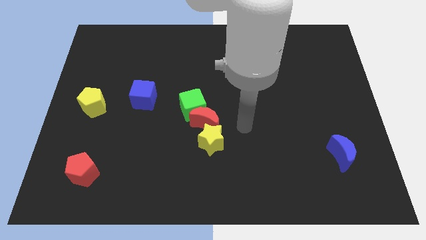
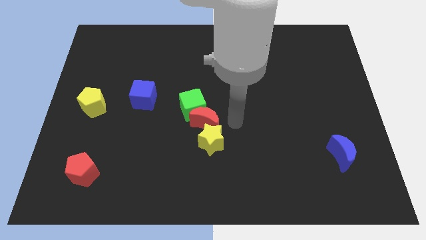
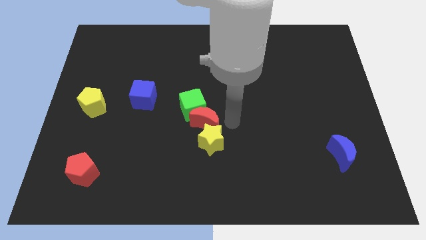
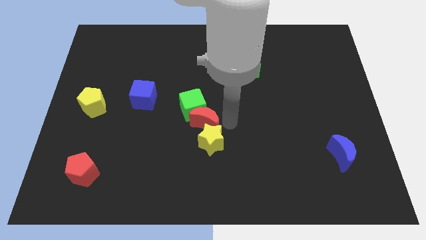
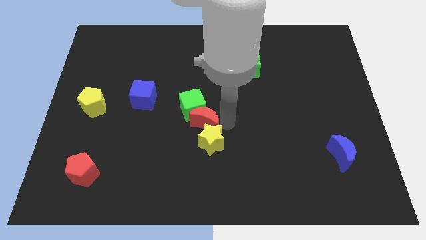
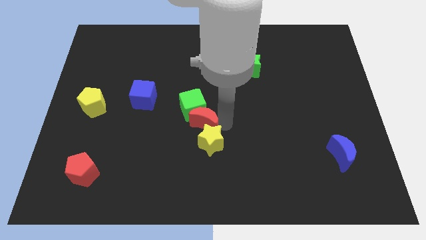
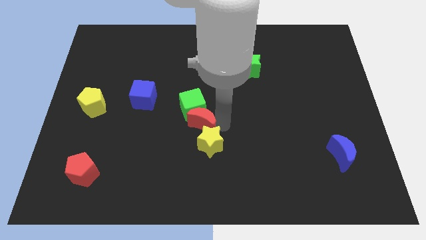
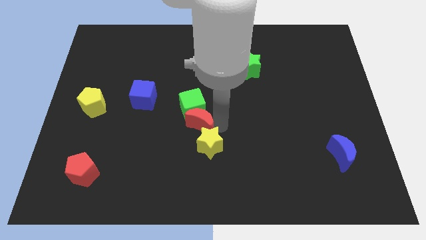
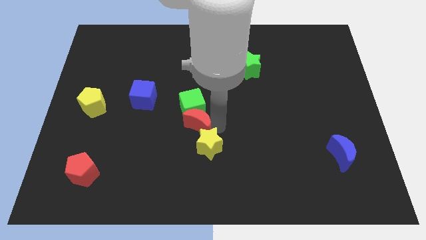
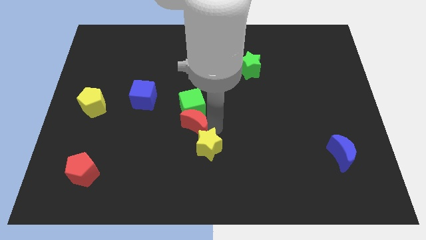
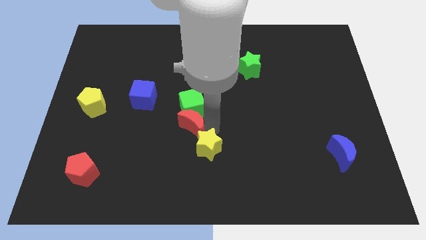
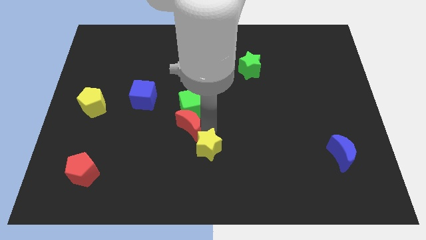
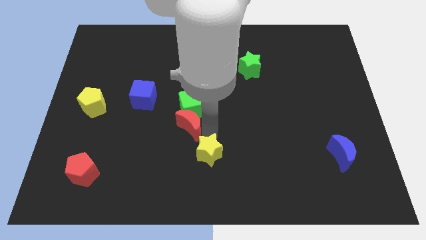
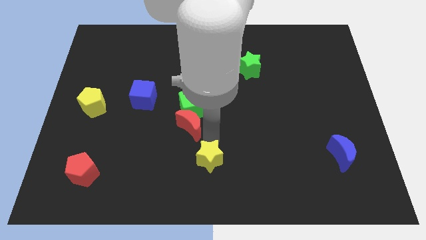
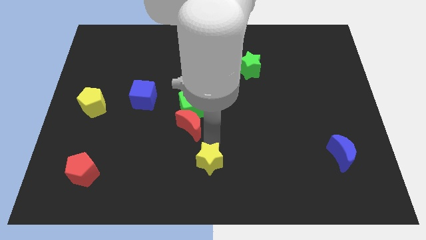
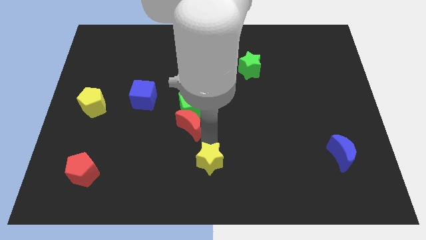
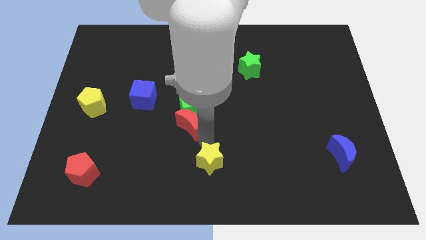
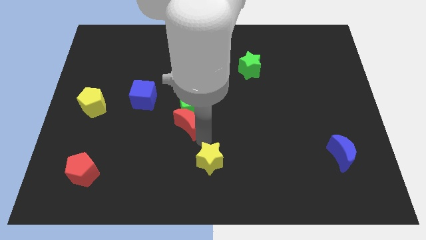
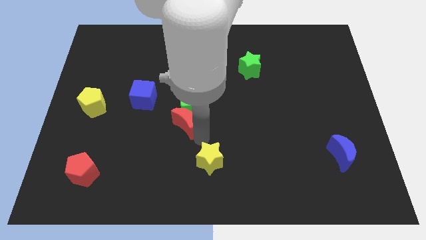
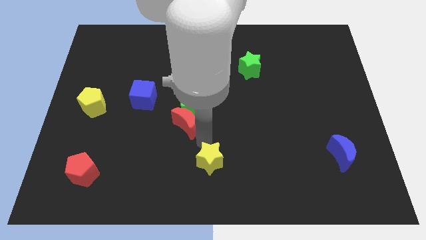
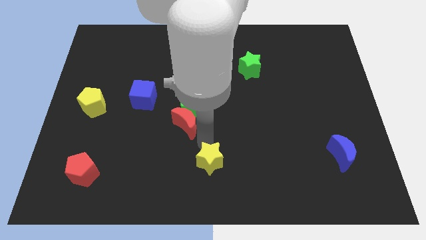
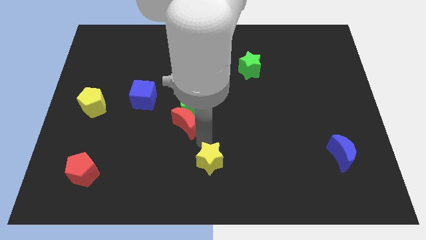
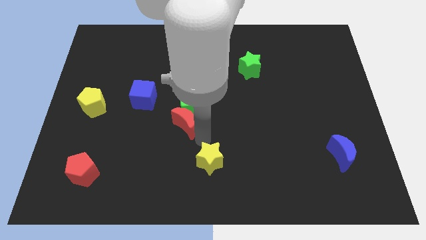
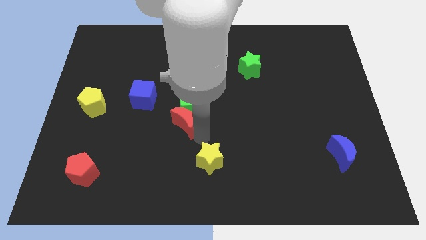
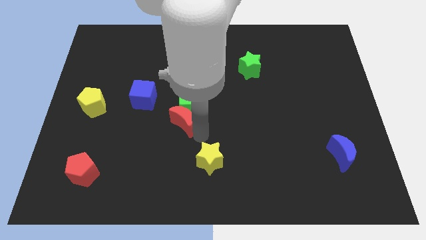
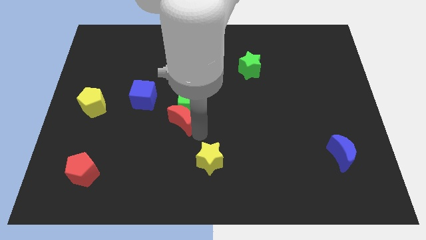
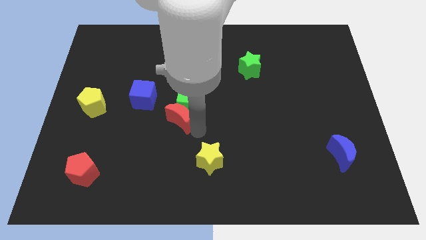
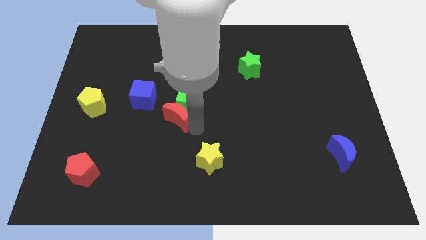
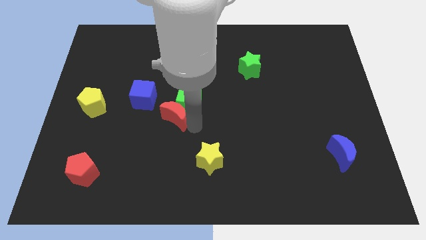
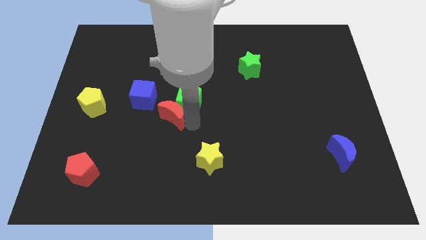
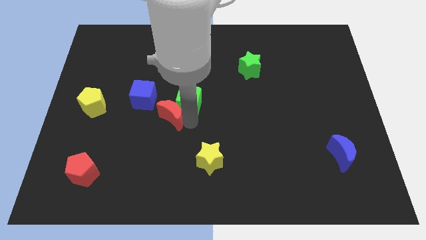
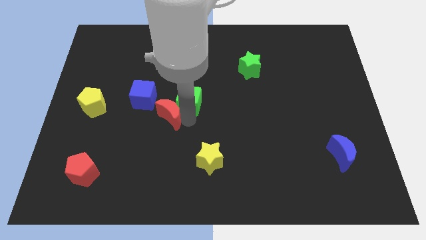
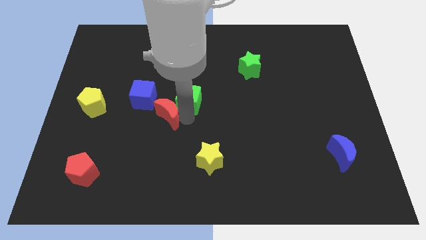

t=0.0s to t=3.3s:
slightly push the red moon diagonally up and left

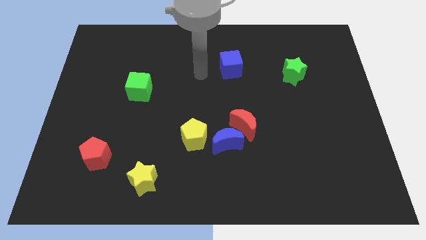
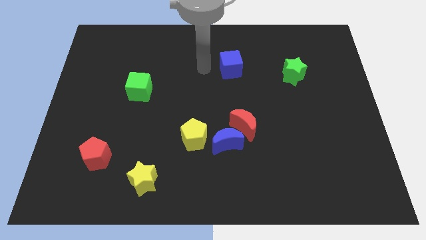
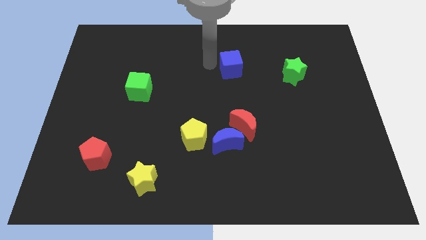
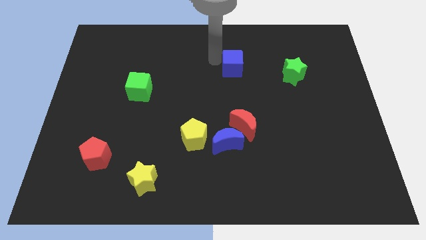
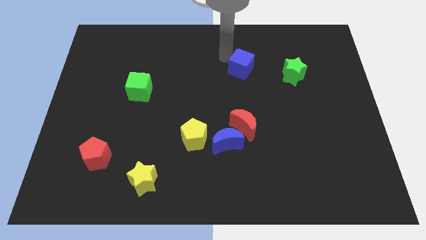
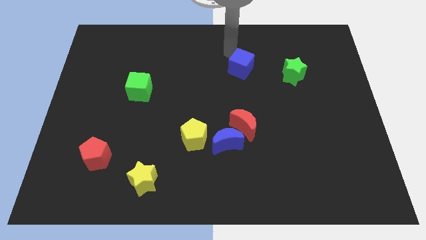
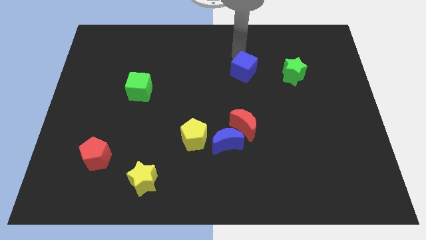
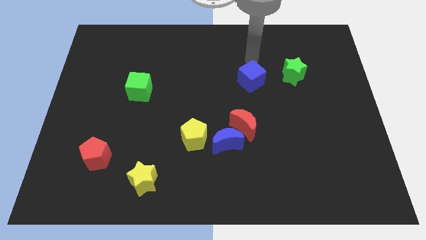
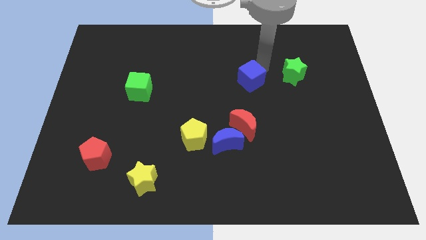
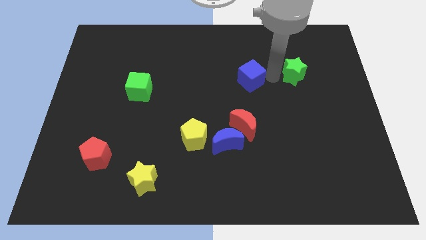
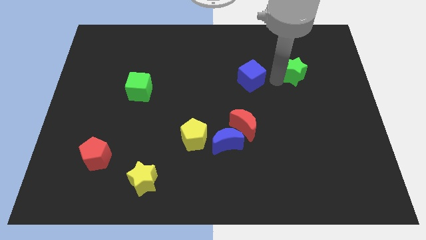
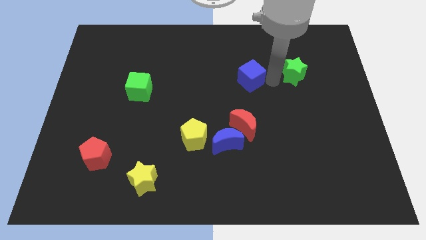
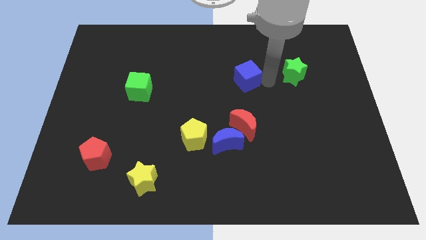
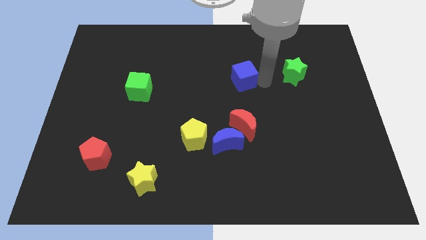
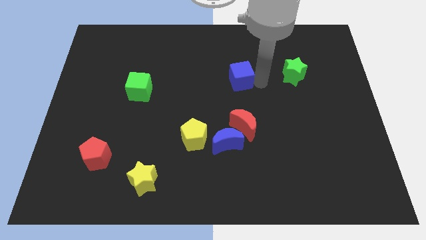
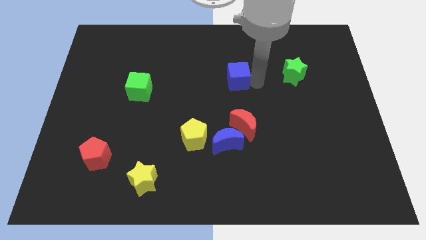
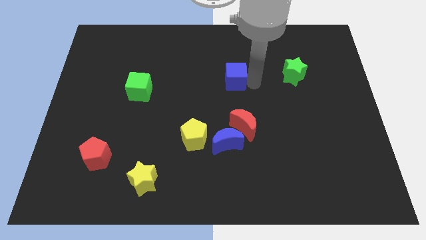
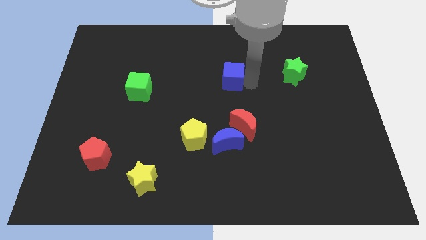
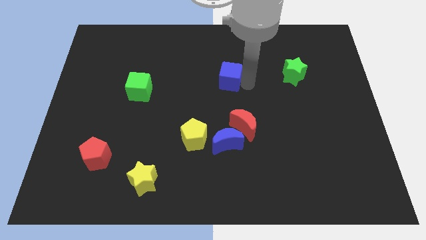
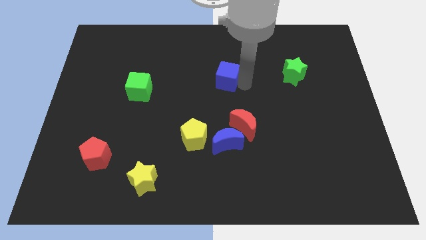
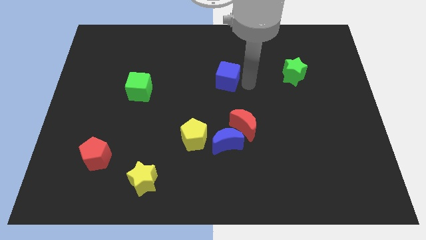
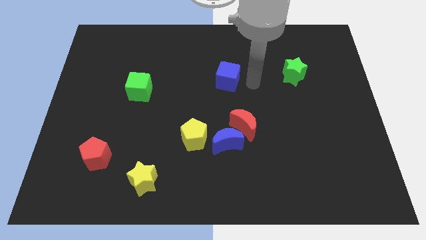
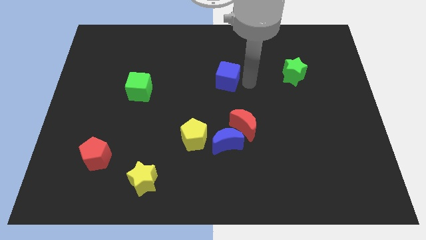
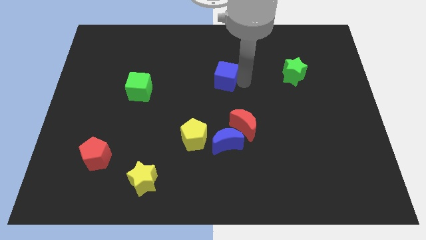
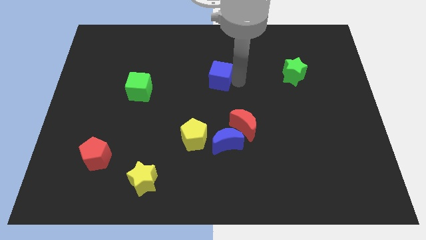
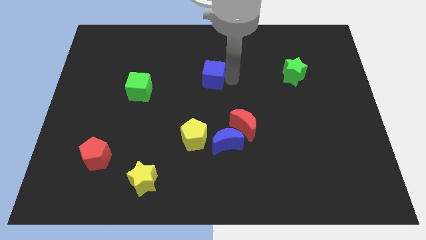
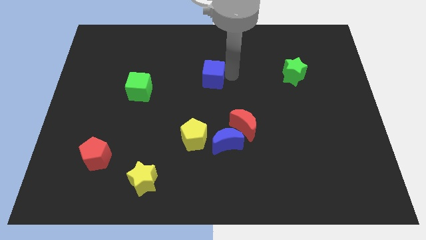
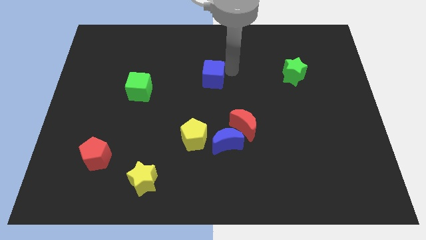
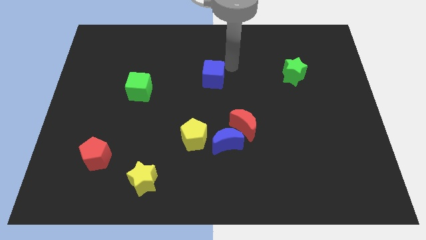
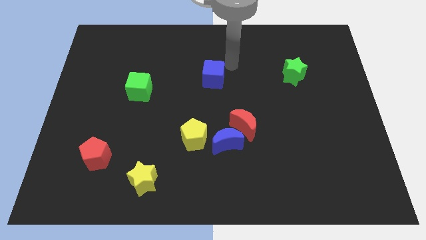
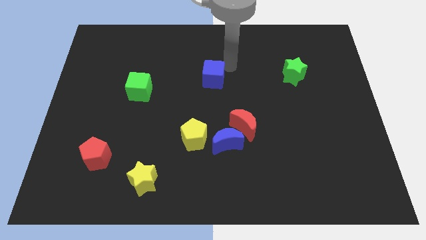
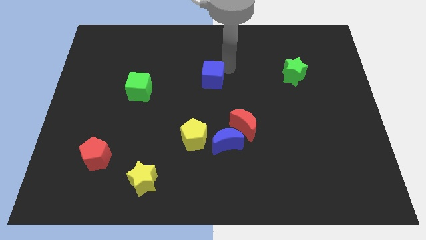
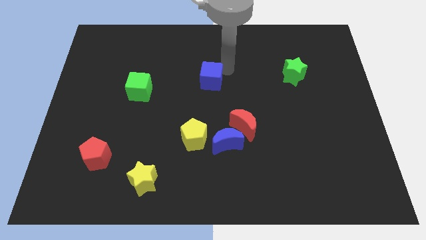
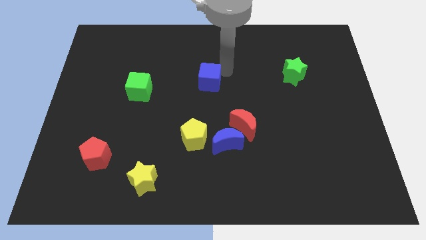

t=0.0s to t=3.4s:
push the blue cube a little bit down and left

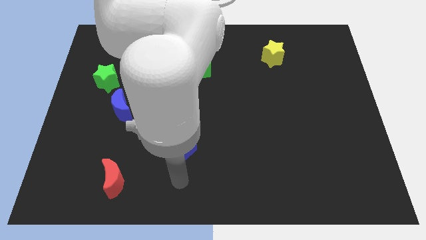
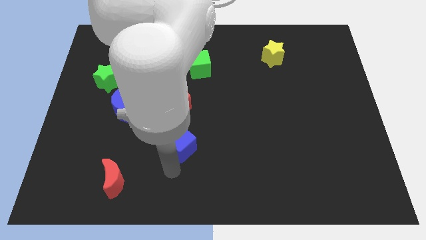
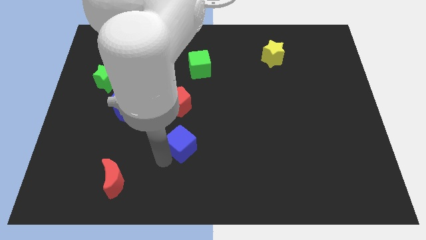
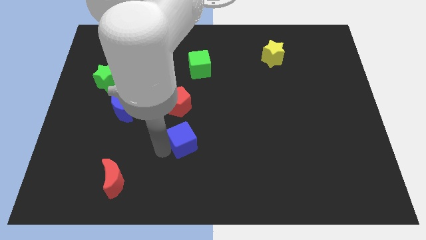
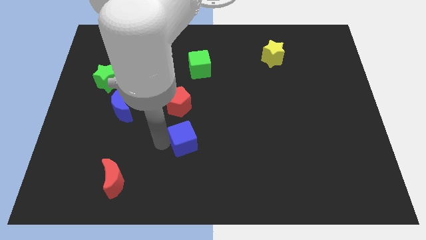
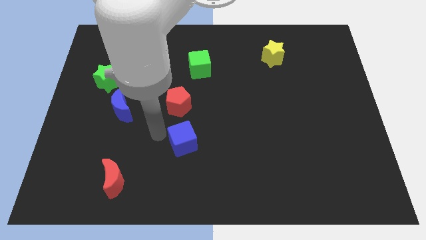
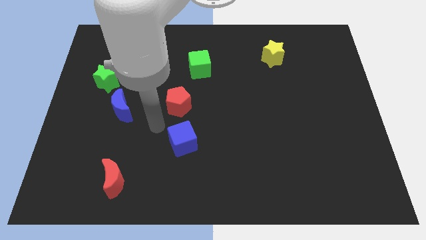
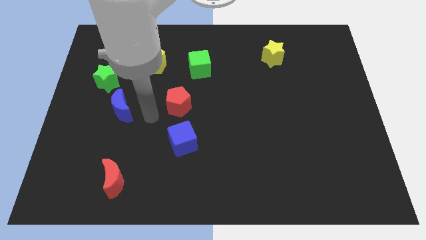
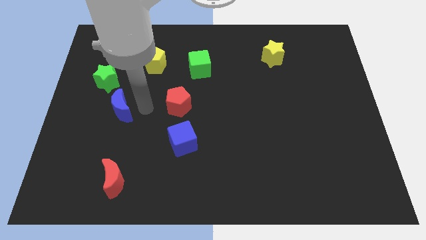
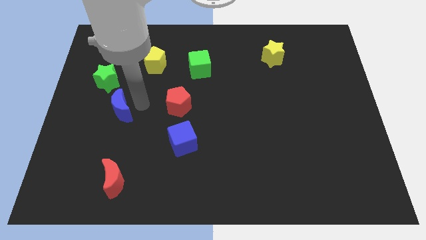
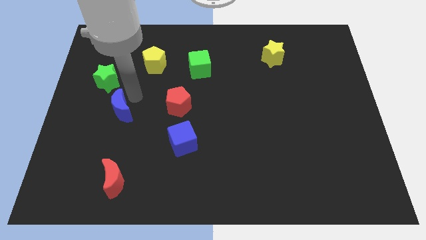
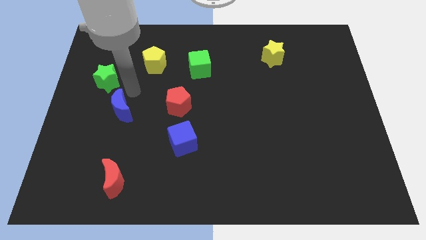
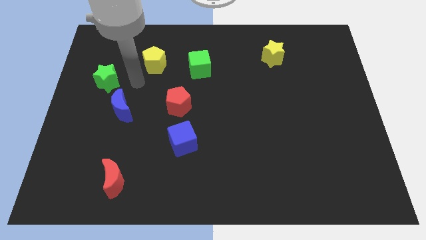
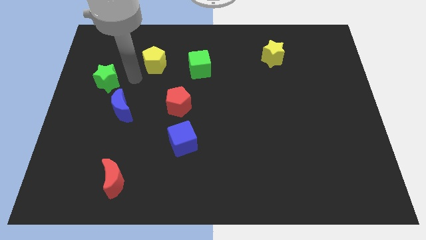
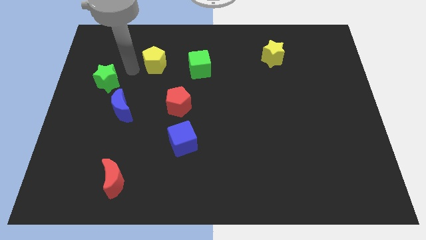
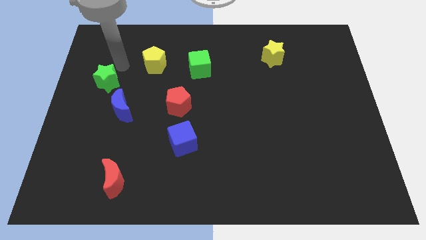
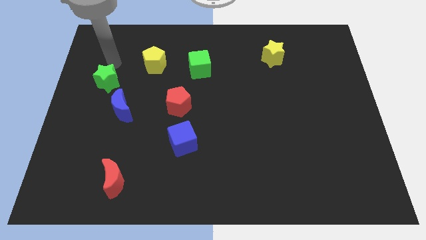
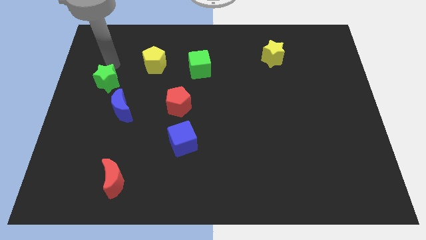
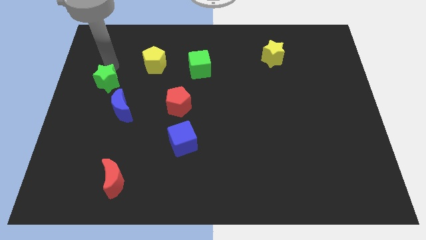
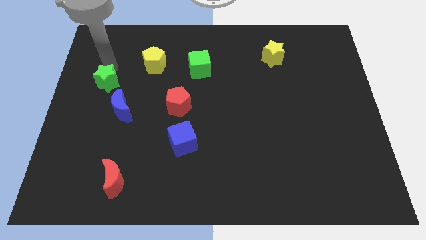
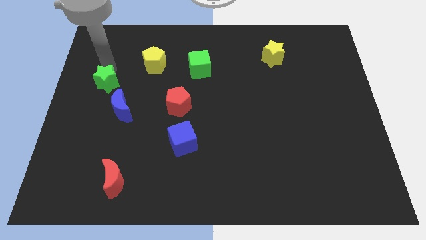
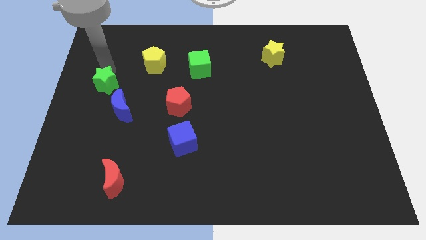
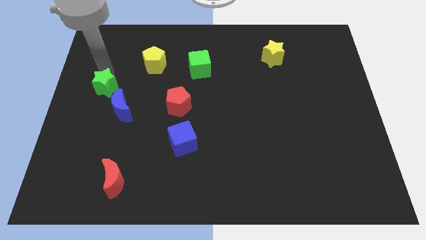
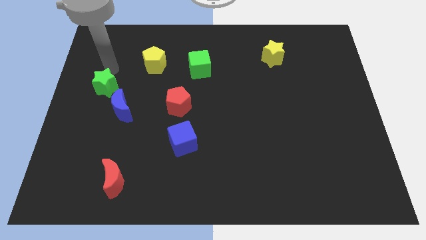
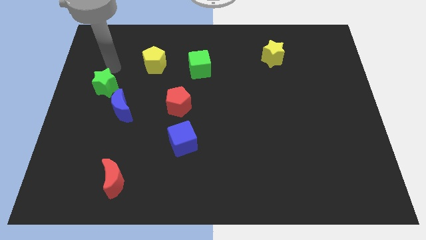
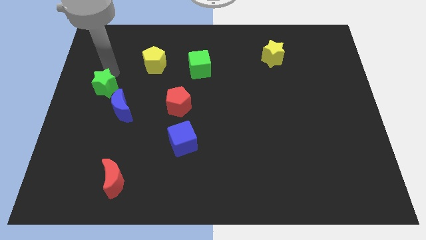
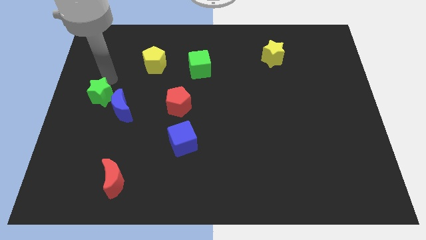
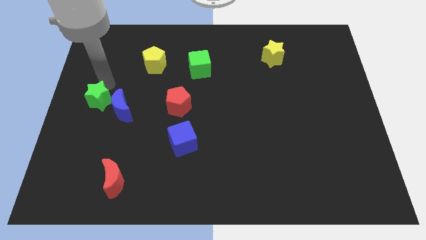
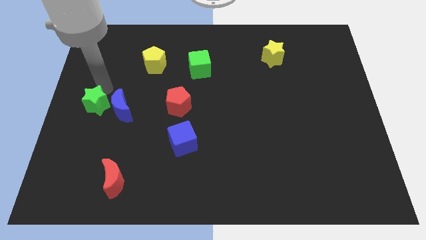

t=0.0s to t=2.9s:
push the green star down a little
